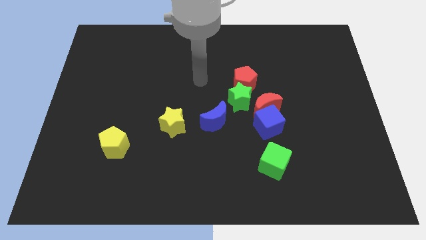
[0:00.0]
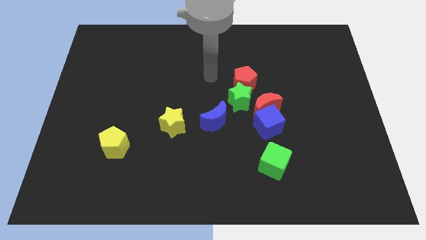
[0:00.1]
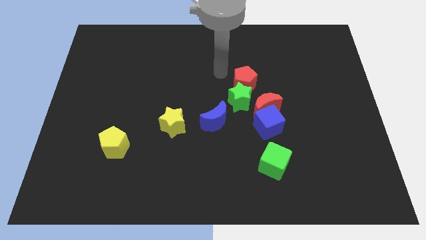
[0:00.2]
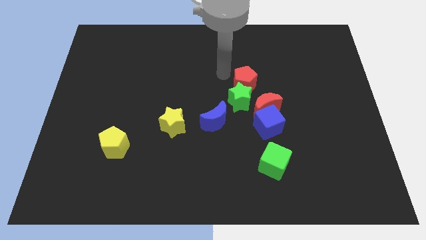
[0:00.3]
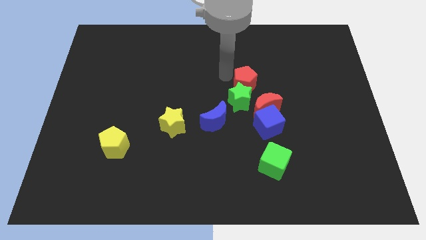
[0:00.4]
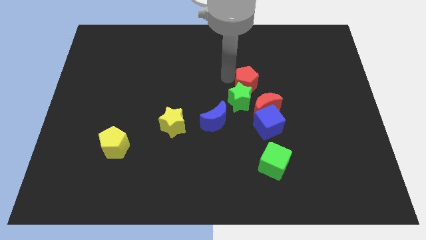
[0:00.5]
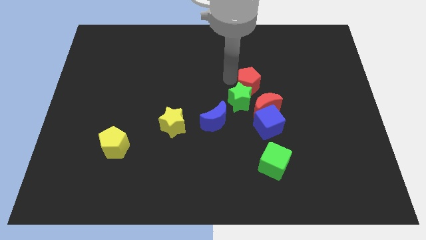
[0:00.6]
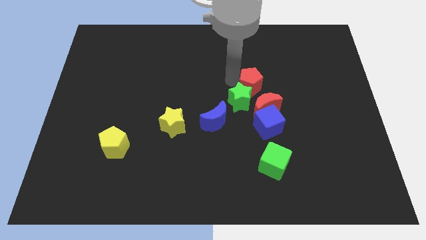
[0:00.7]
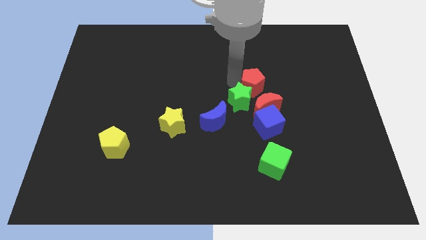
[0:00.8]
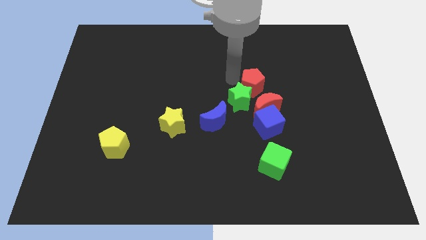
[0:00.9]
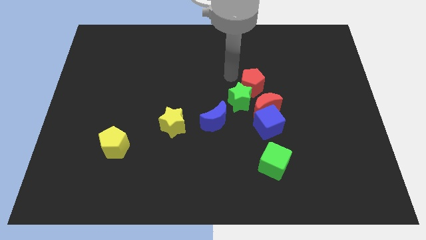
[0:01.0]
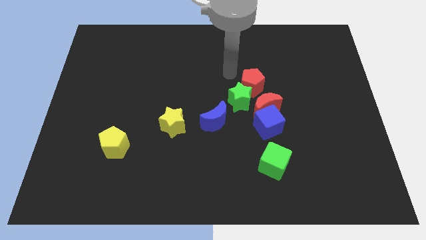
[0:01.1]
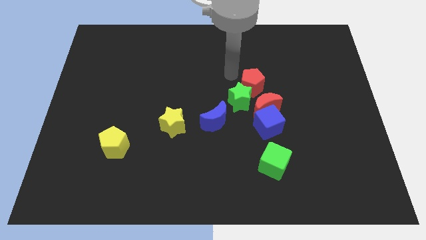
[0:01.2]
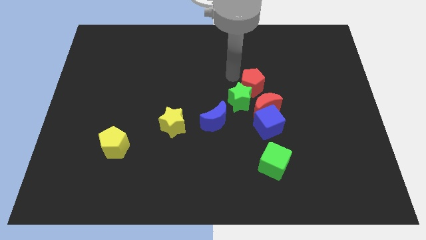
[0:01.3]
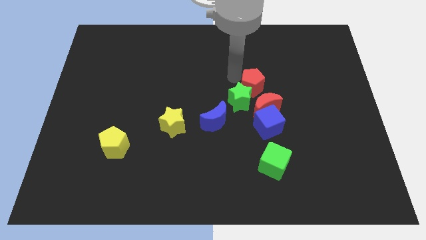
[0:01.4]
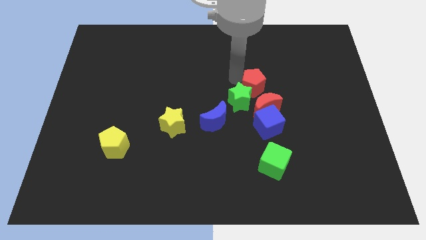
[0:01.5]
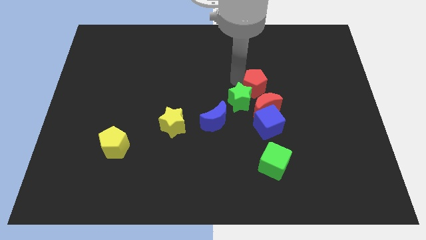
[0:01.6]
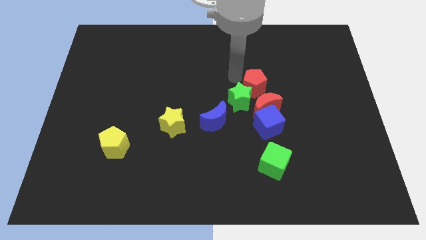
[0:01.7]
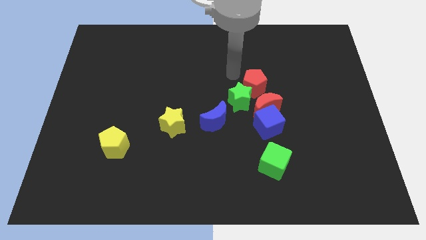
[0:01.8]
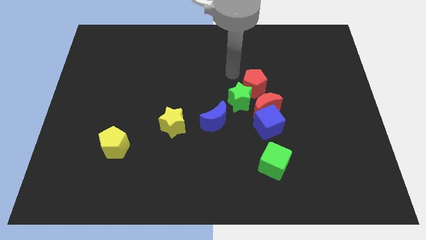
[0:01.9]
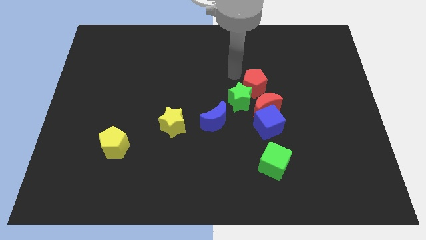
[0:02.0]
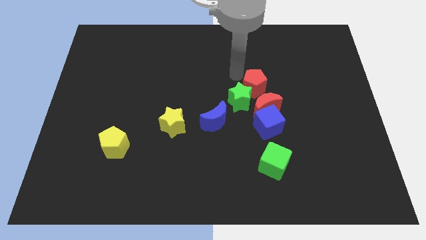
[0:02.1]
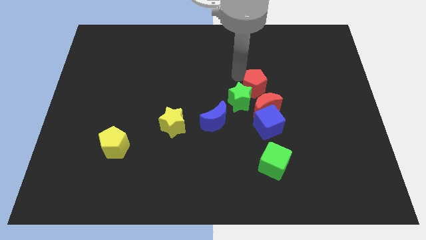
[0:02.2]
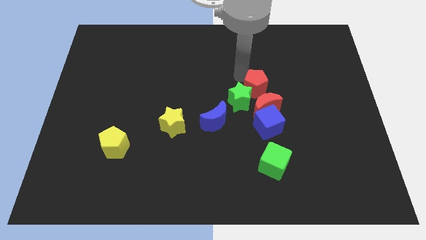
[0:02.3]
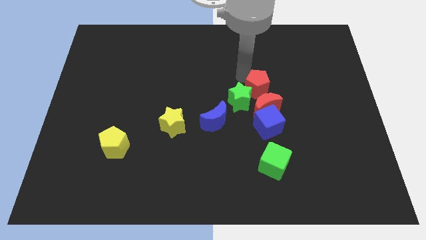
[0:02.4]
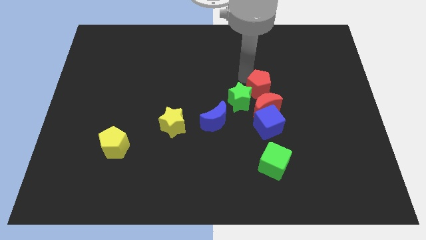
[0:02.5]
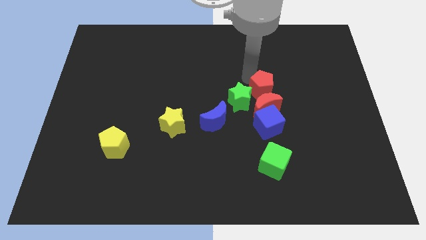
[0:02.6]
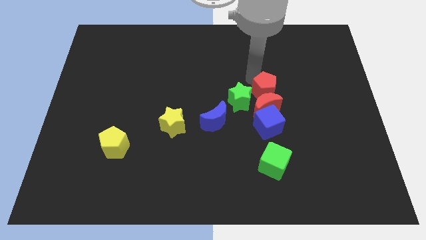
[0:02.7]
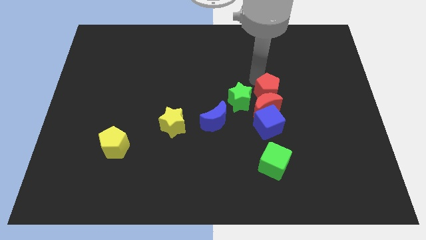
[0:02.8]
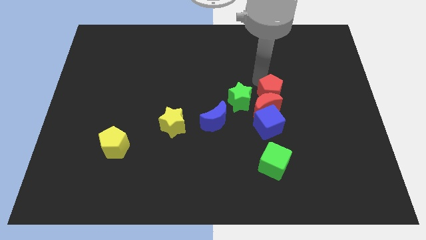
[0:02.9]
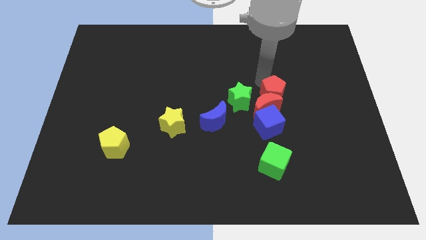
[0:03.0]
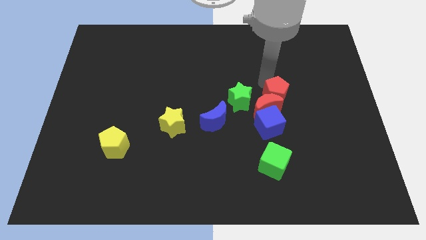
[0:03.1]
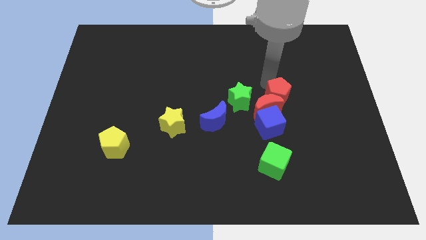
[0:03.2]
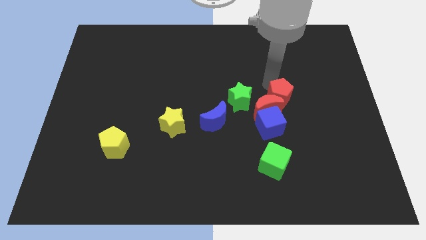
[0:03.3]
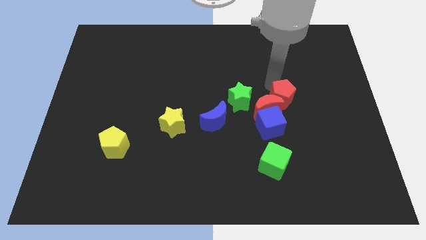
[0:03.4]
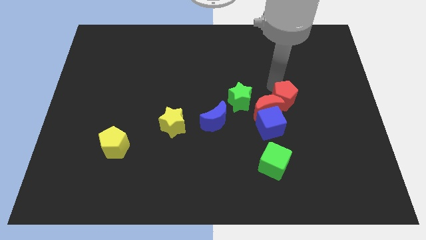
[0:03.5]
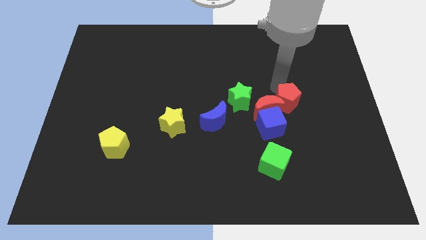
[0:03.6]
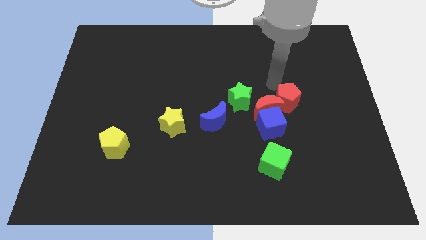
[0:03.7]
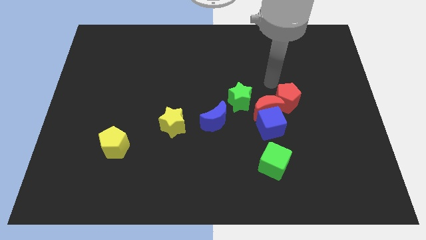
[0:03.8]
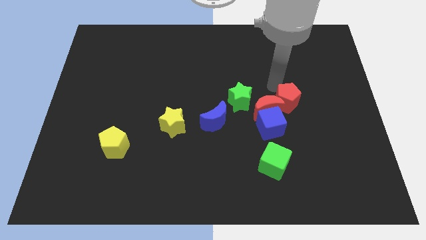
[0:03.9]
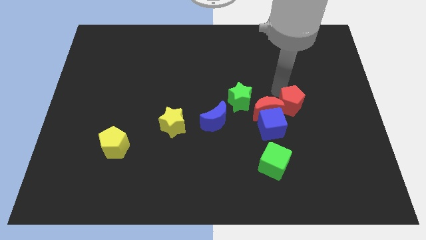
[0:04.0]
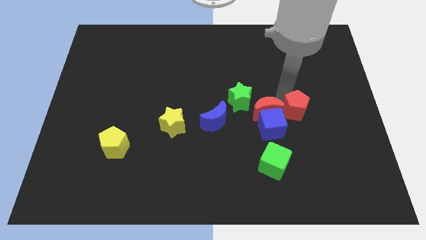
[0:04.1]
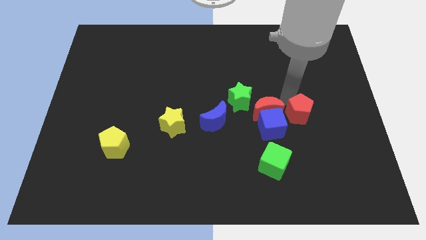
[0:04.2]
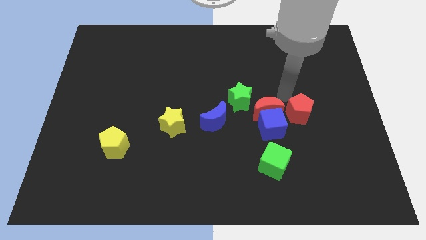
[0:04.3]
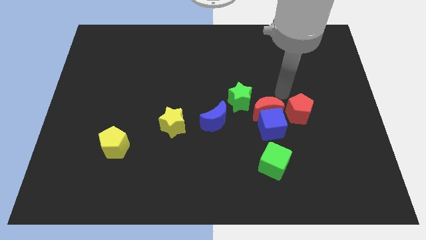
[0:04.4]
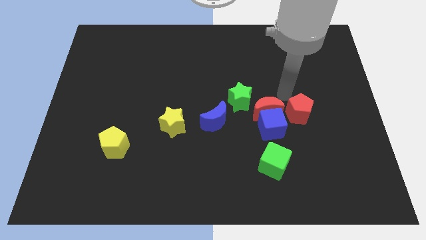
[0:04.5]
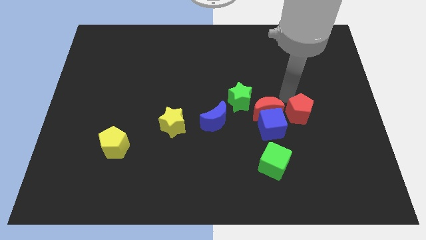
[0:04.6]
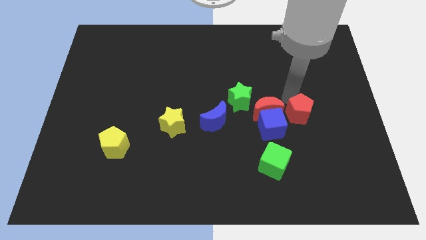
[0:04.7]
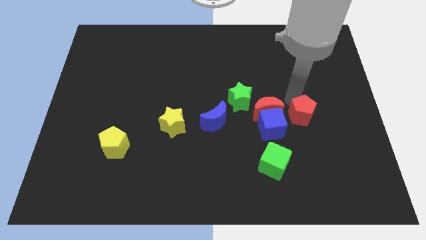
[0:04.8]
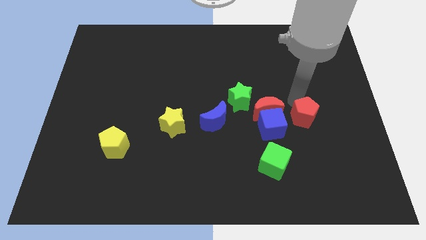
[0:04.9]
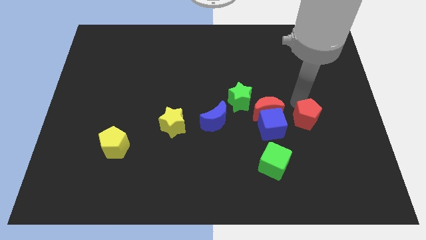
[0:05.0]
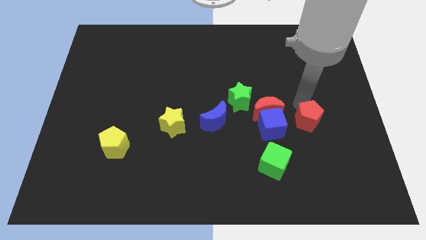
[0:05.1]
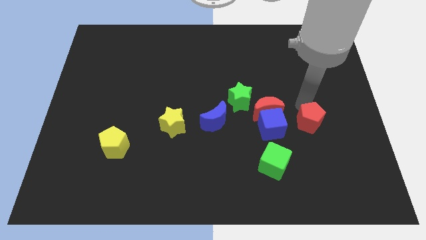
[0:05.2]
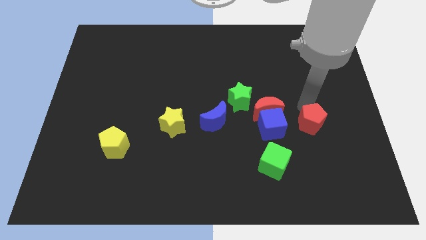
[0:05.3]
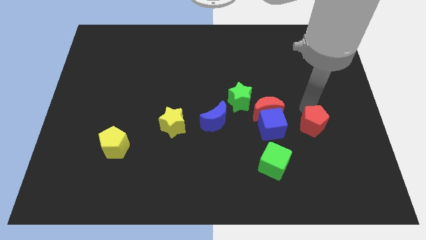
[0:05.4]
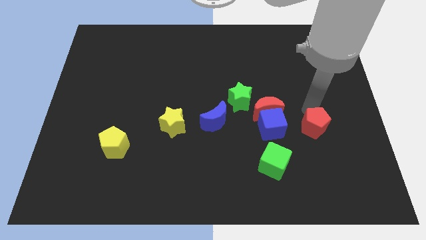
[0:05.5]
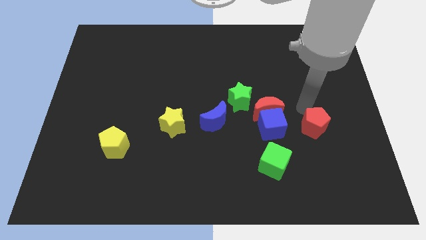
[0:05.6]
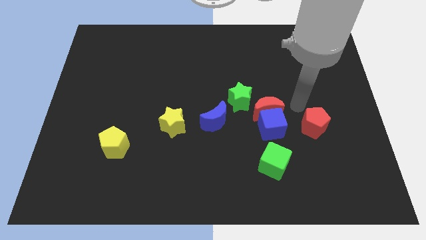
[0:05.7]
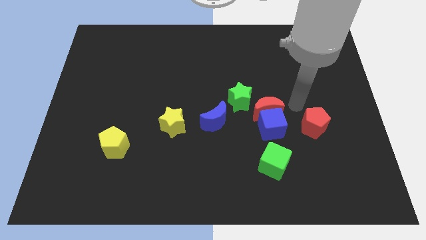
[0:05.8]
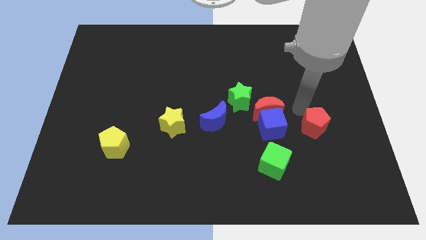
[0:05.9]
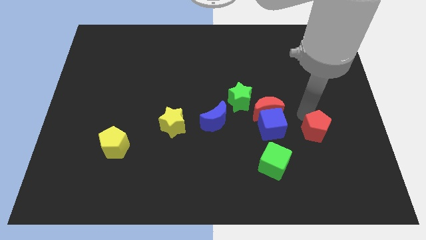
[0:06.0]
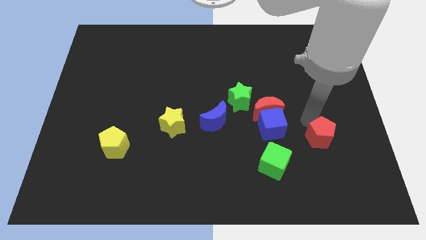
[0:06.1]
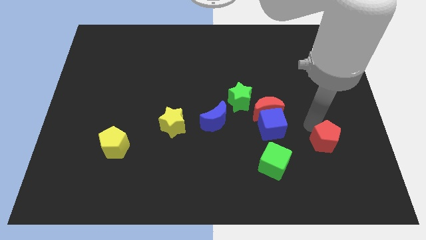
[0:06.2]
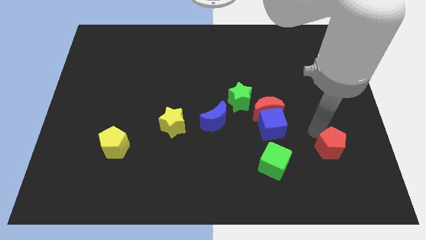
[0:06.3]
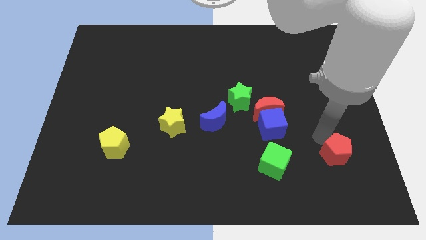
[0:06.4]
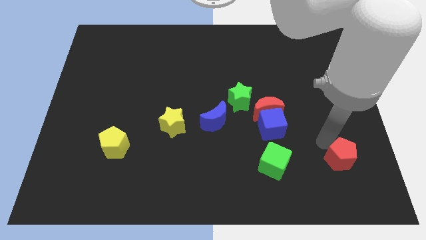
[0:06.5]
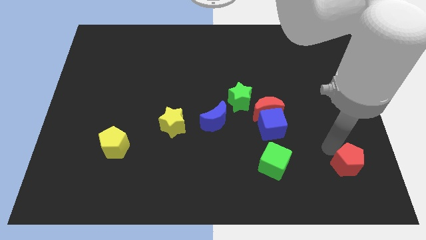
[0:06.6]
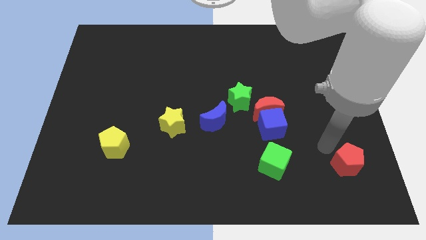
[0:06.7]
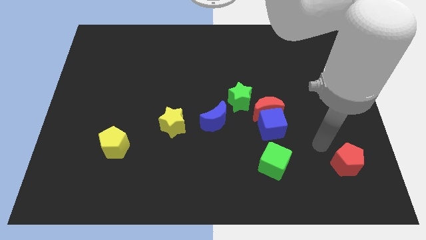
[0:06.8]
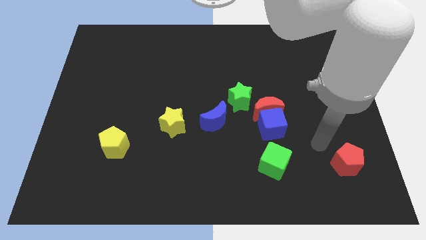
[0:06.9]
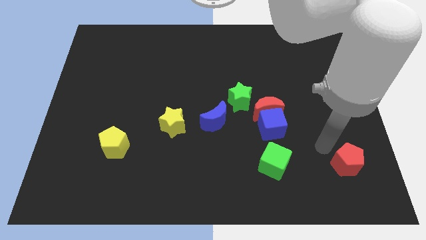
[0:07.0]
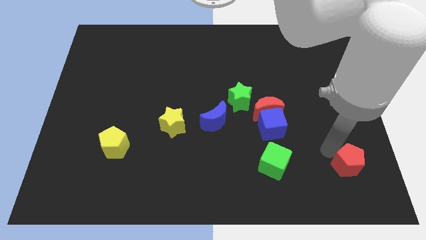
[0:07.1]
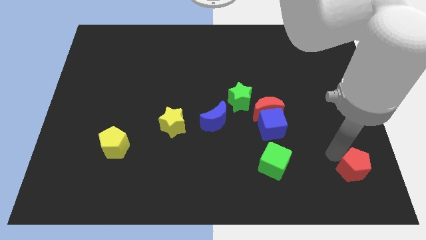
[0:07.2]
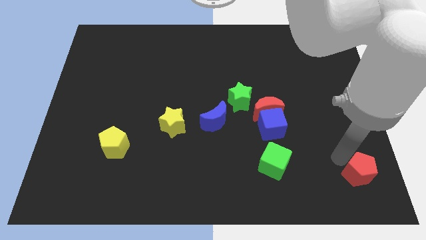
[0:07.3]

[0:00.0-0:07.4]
move the red pentagon to the bottom right of the board
